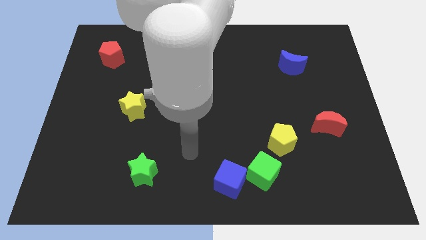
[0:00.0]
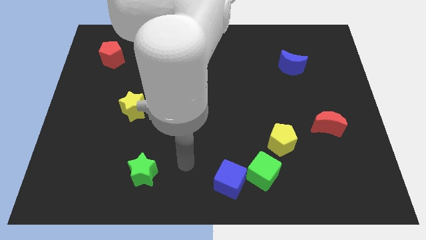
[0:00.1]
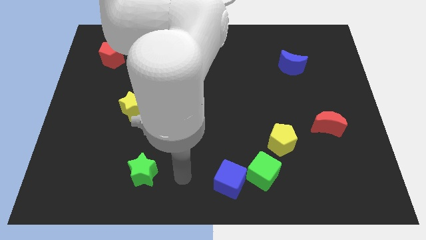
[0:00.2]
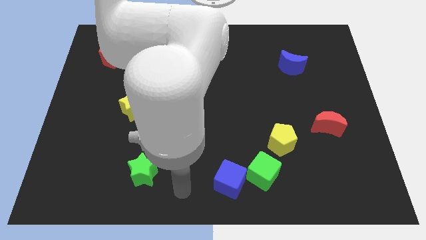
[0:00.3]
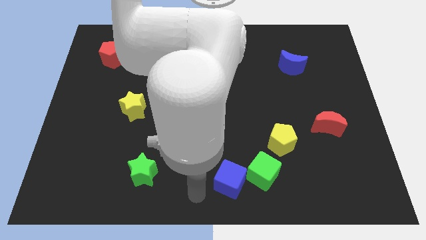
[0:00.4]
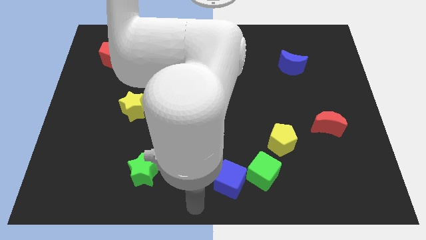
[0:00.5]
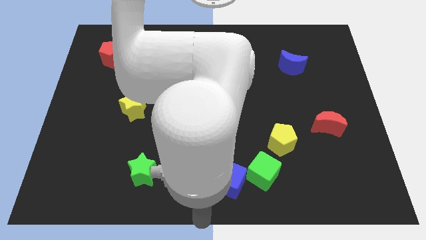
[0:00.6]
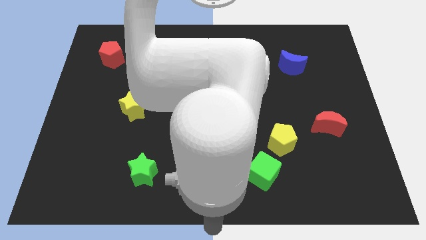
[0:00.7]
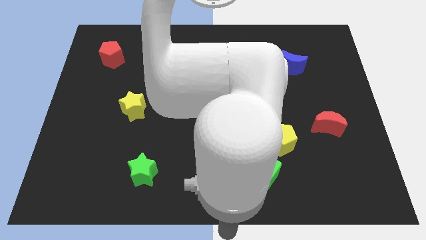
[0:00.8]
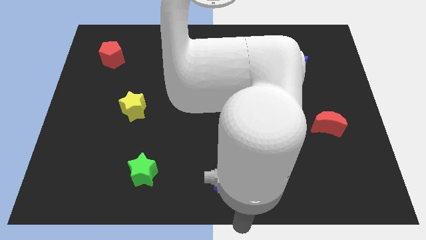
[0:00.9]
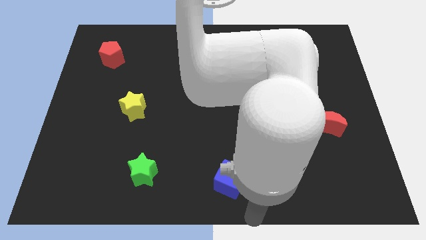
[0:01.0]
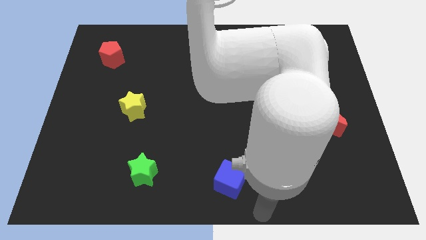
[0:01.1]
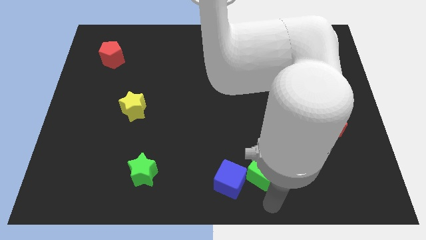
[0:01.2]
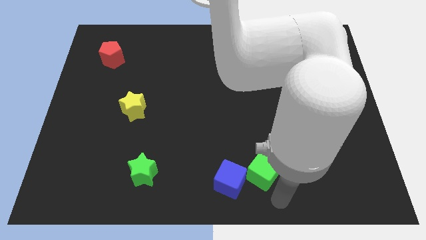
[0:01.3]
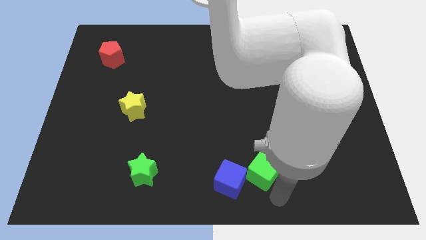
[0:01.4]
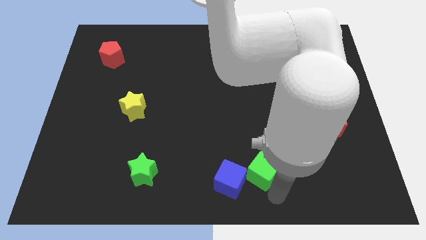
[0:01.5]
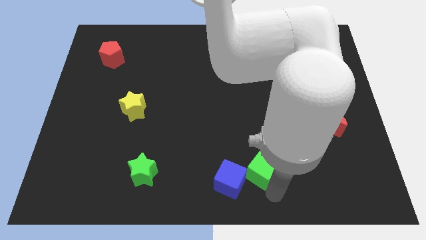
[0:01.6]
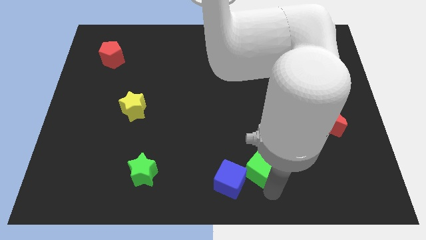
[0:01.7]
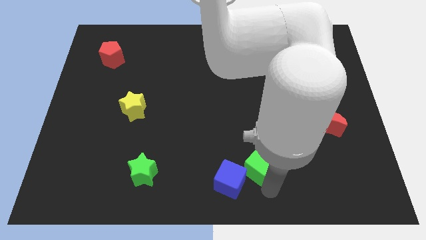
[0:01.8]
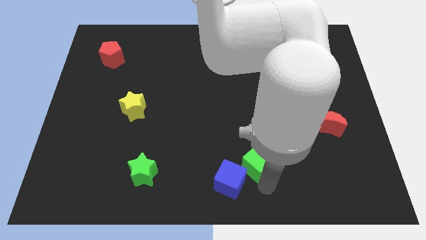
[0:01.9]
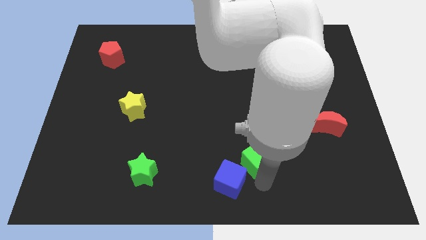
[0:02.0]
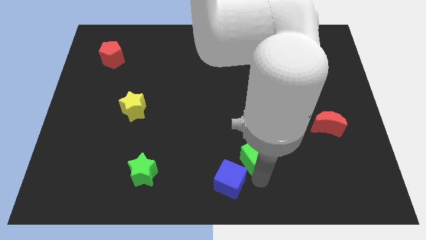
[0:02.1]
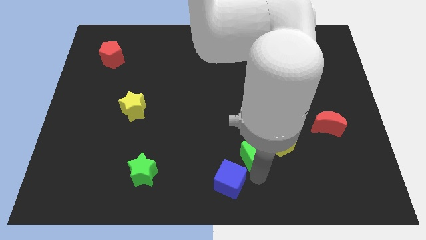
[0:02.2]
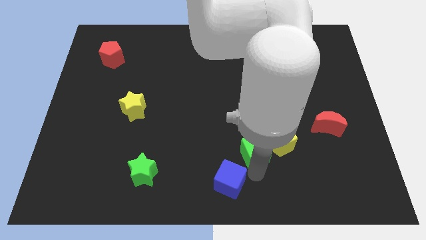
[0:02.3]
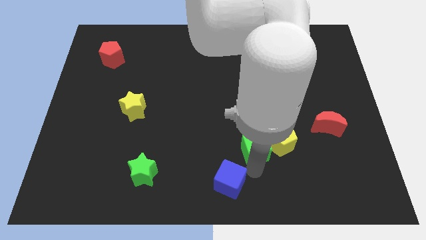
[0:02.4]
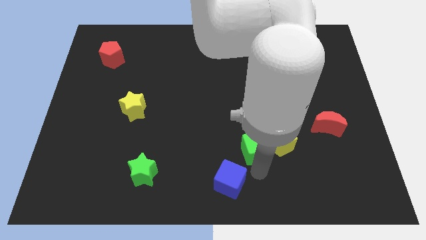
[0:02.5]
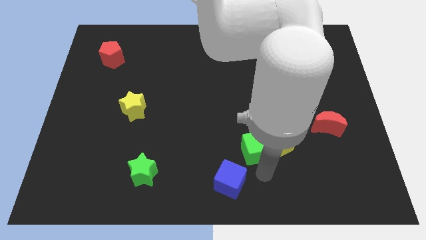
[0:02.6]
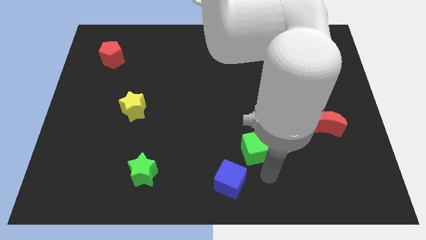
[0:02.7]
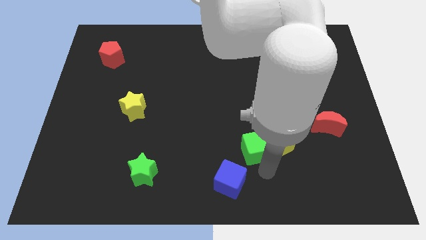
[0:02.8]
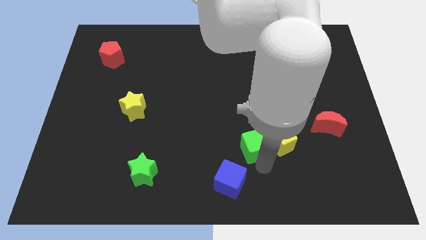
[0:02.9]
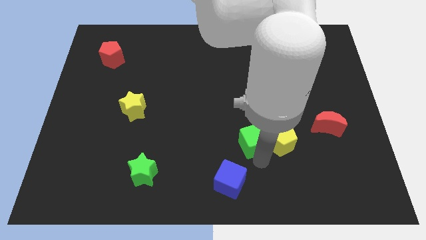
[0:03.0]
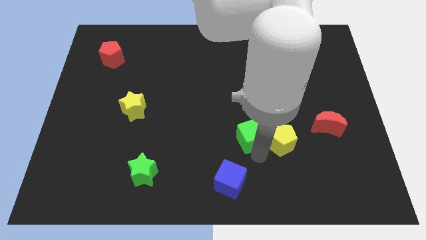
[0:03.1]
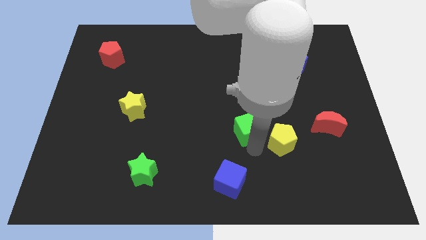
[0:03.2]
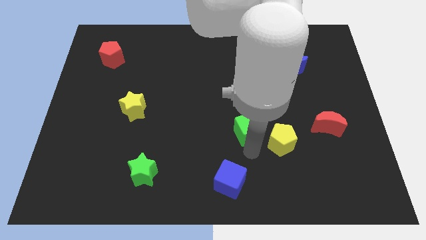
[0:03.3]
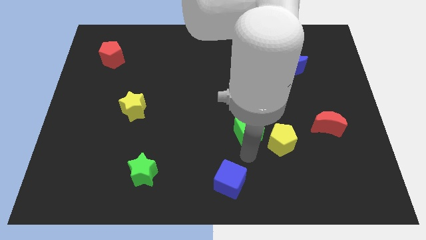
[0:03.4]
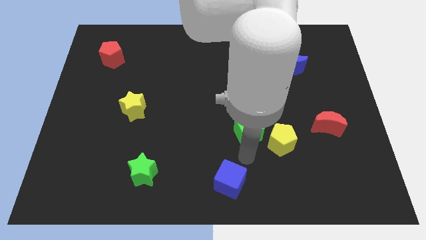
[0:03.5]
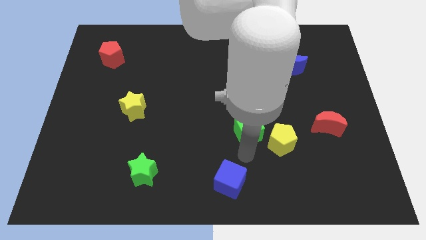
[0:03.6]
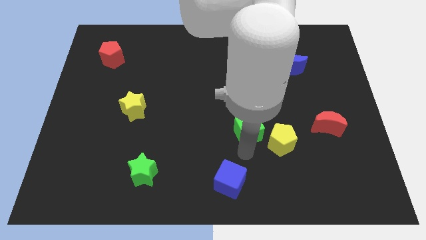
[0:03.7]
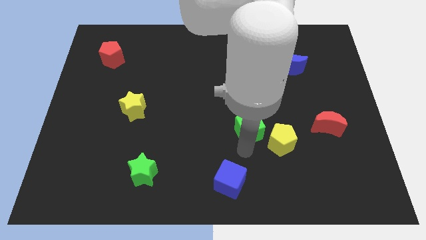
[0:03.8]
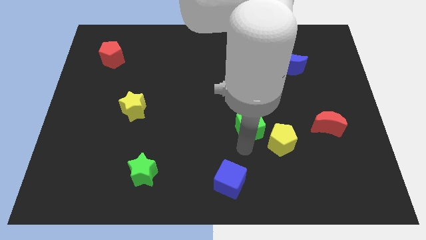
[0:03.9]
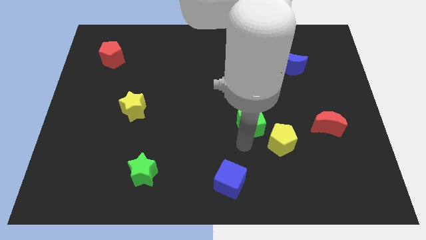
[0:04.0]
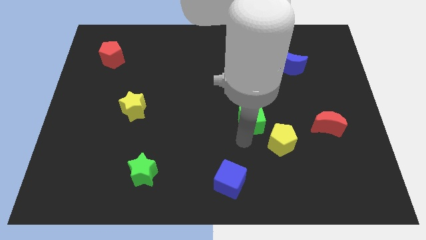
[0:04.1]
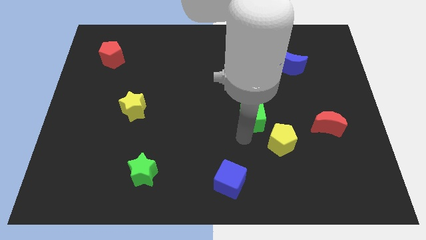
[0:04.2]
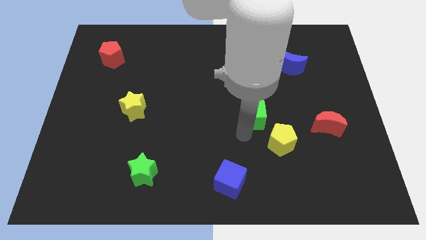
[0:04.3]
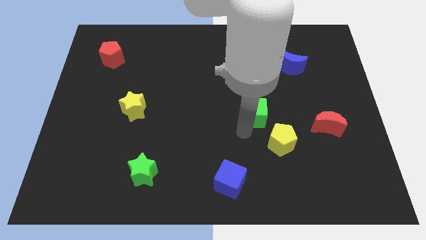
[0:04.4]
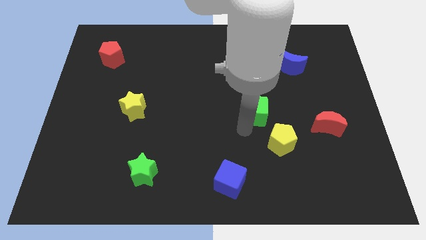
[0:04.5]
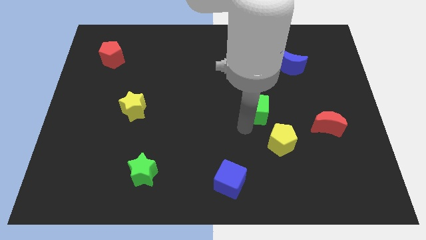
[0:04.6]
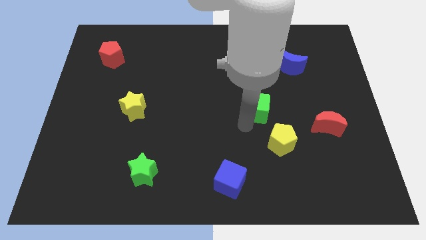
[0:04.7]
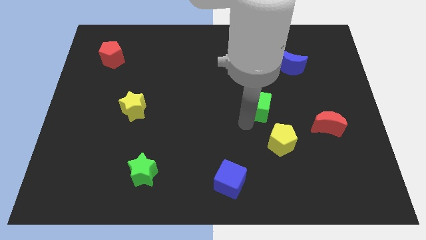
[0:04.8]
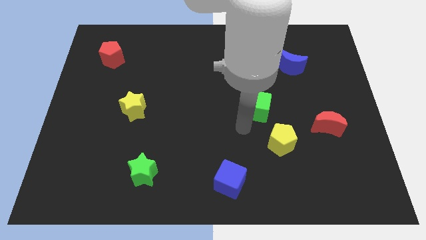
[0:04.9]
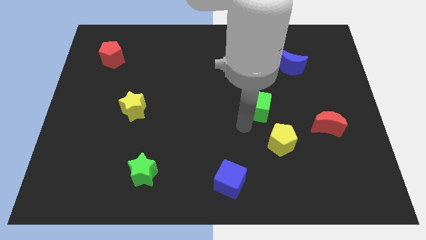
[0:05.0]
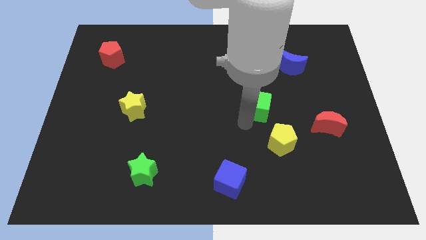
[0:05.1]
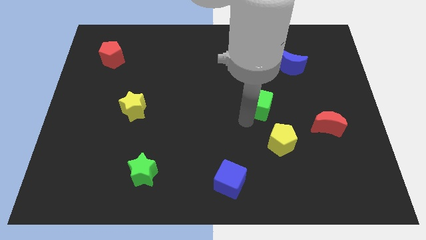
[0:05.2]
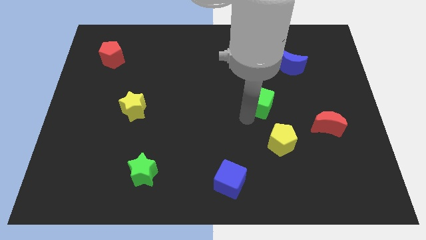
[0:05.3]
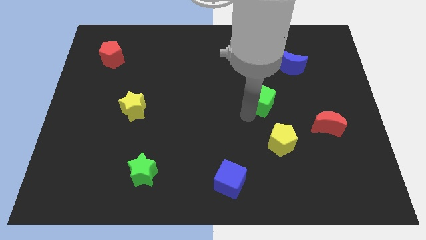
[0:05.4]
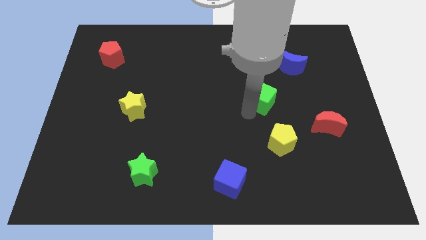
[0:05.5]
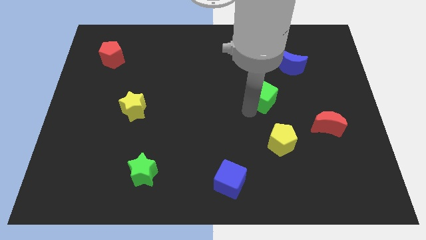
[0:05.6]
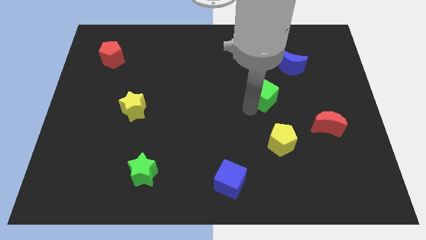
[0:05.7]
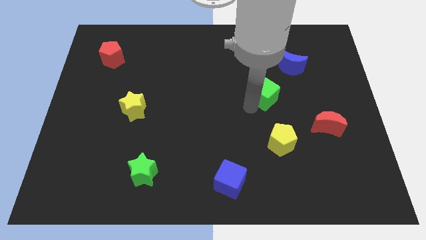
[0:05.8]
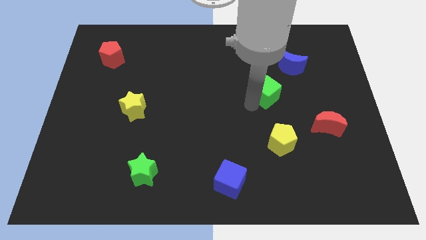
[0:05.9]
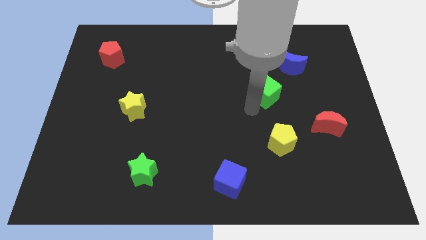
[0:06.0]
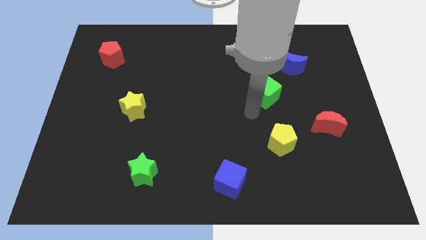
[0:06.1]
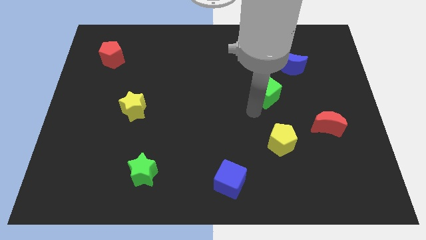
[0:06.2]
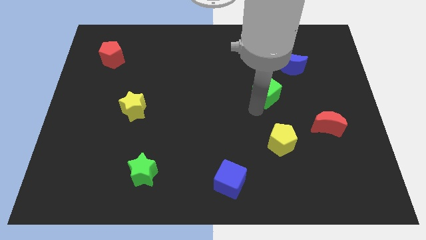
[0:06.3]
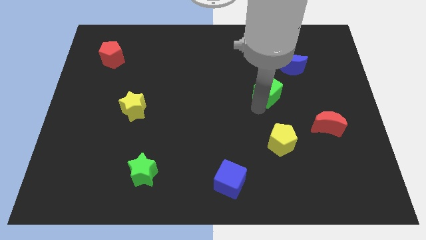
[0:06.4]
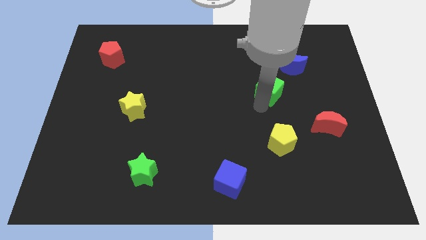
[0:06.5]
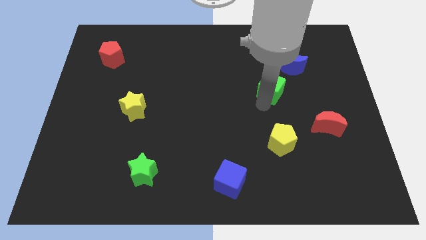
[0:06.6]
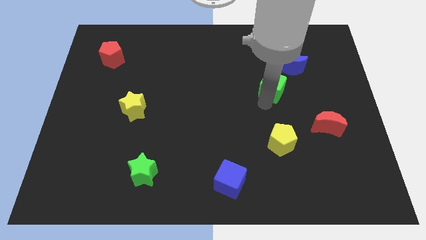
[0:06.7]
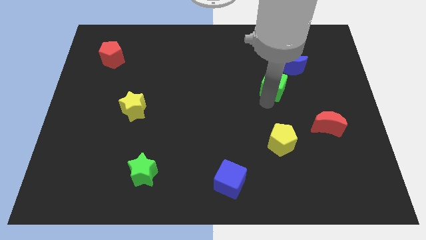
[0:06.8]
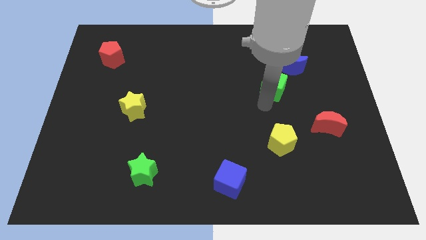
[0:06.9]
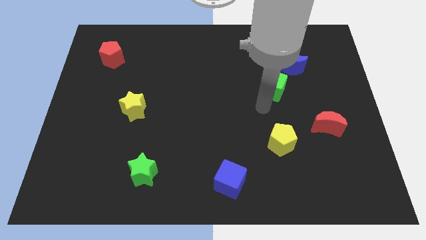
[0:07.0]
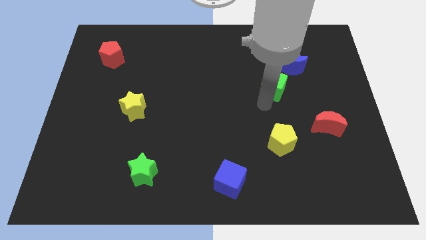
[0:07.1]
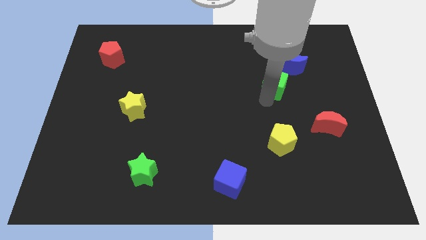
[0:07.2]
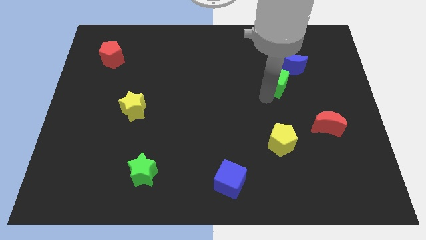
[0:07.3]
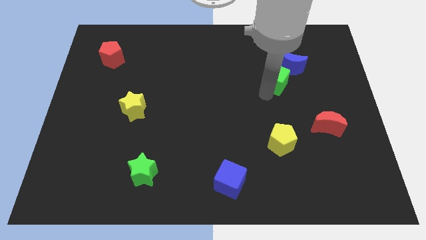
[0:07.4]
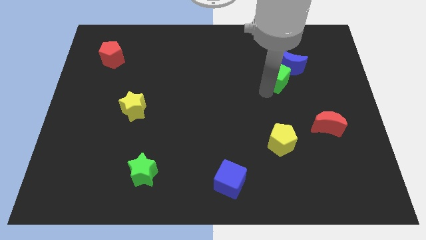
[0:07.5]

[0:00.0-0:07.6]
push the green cube next to the blue moon
